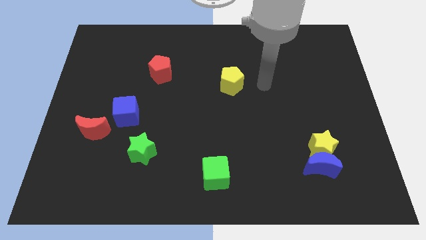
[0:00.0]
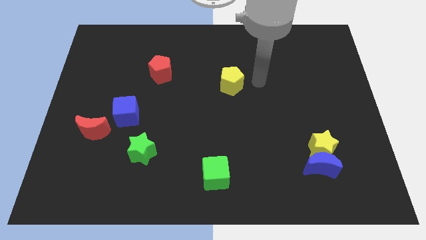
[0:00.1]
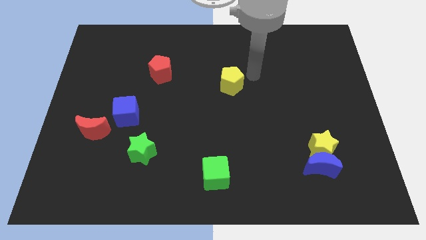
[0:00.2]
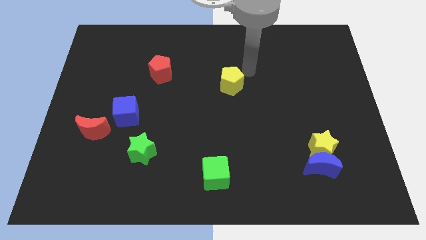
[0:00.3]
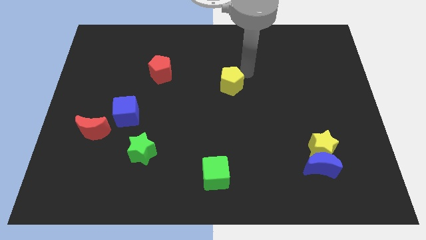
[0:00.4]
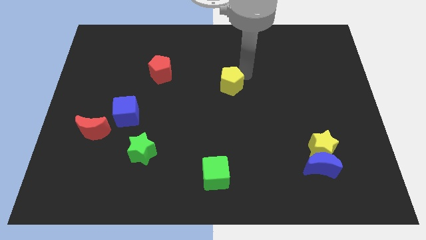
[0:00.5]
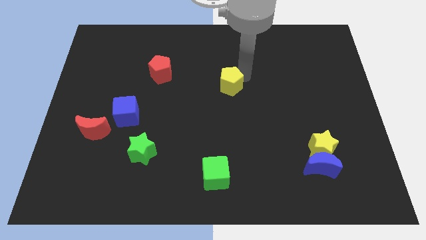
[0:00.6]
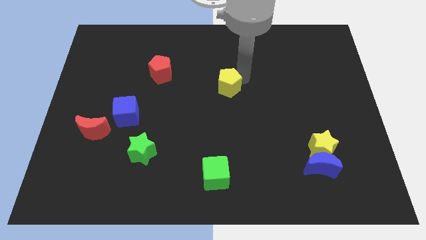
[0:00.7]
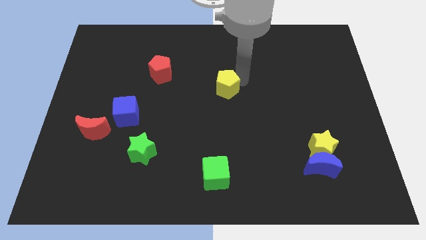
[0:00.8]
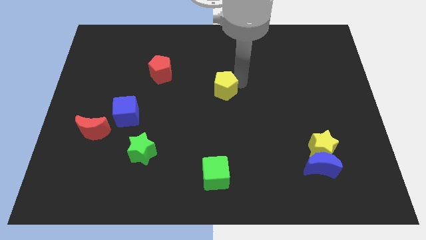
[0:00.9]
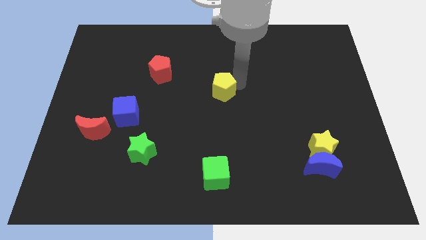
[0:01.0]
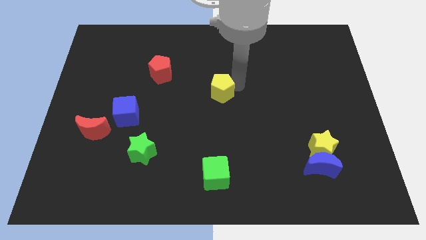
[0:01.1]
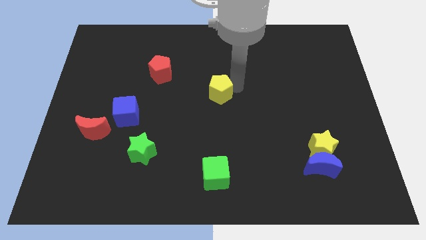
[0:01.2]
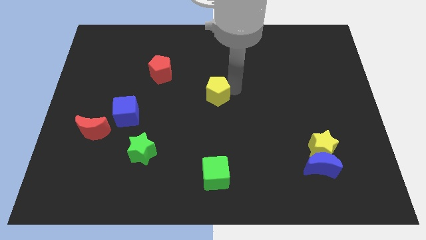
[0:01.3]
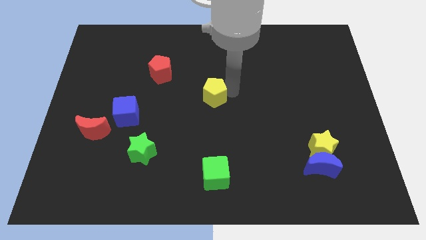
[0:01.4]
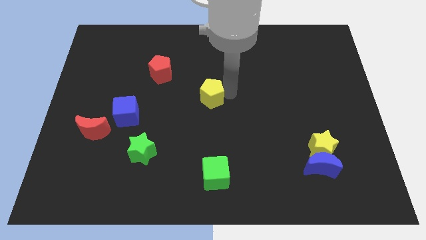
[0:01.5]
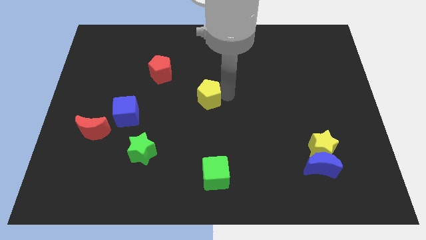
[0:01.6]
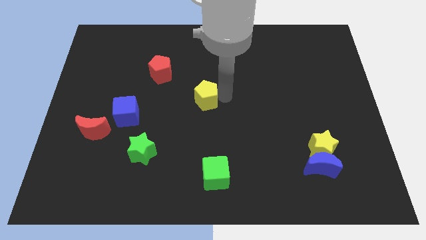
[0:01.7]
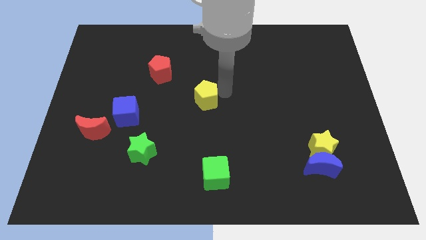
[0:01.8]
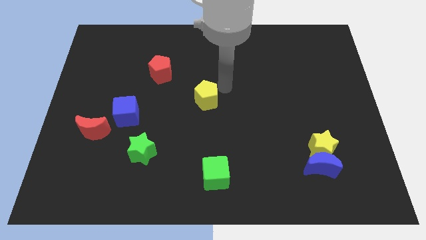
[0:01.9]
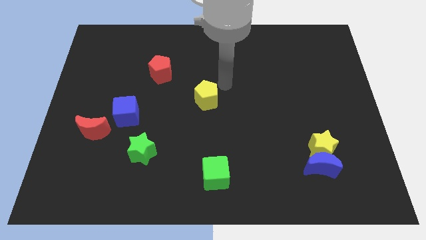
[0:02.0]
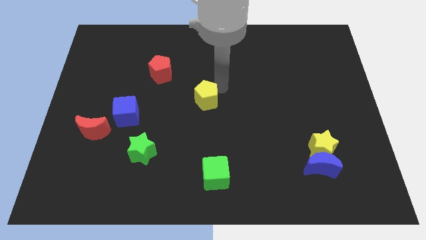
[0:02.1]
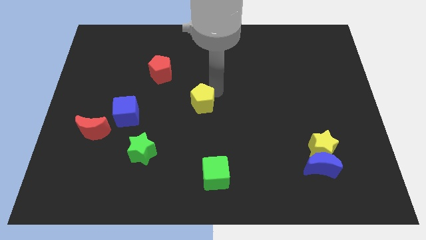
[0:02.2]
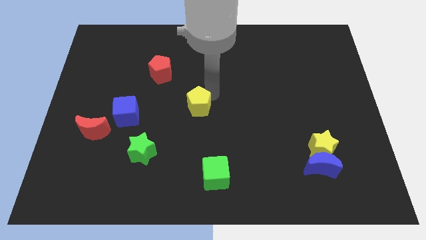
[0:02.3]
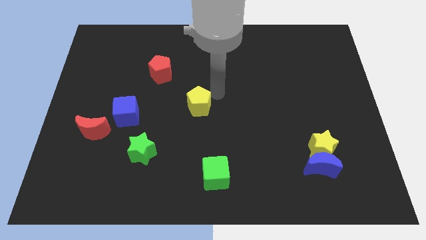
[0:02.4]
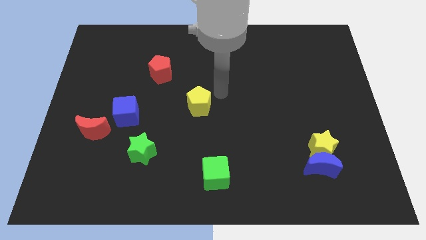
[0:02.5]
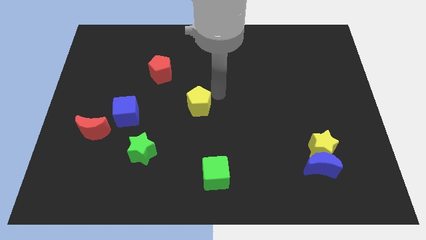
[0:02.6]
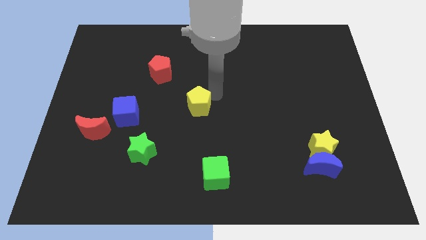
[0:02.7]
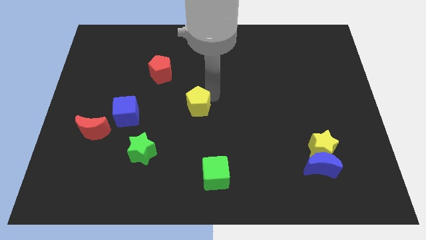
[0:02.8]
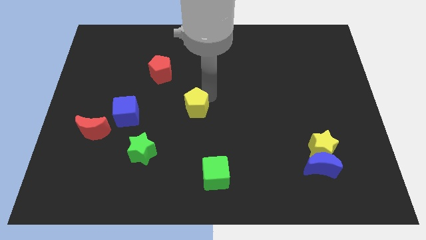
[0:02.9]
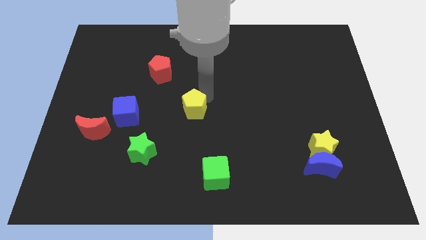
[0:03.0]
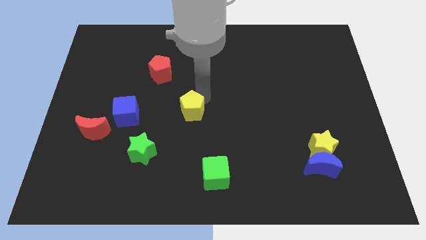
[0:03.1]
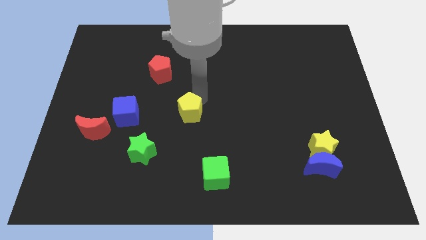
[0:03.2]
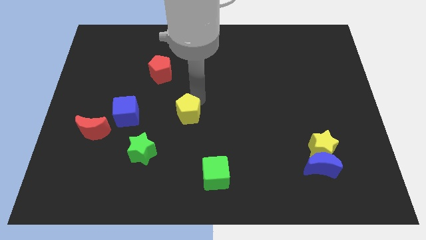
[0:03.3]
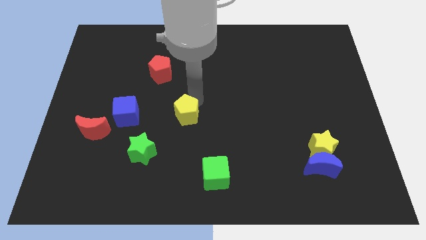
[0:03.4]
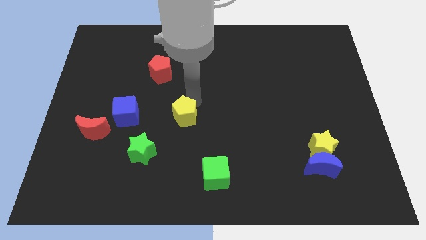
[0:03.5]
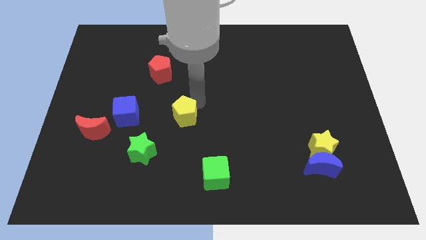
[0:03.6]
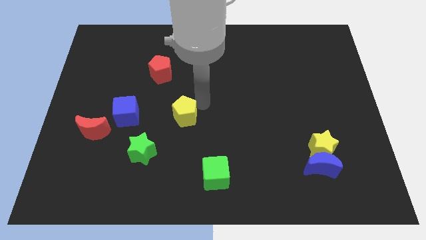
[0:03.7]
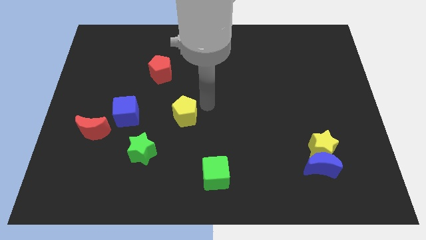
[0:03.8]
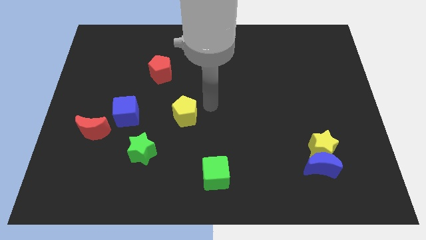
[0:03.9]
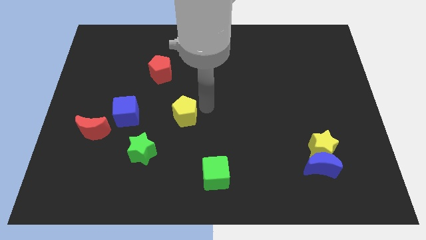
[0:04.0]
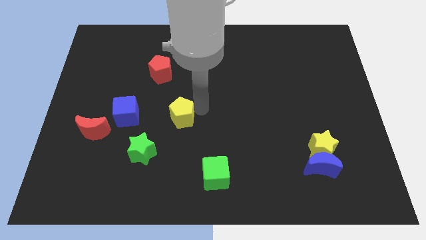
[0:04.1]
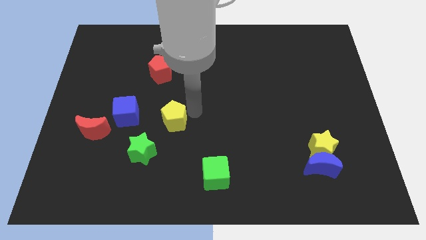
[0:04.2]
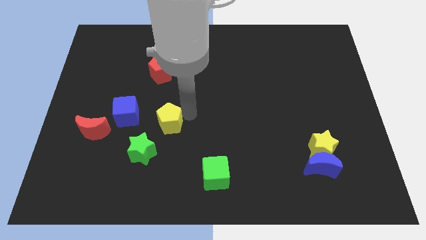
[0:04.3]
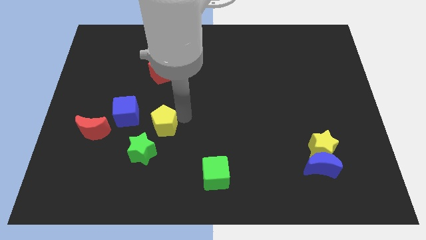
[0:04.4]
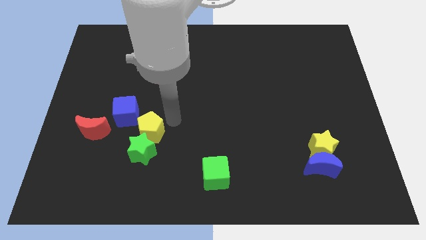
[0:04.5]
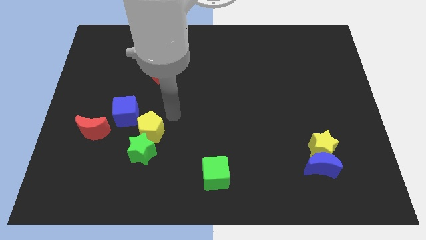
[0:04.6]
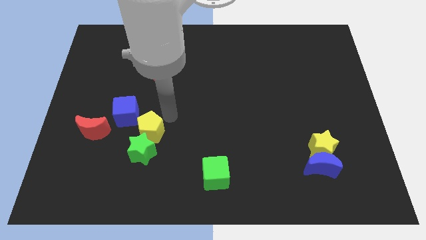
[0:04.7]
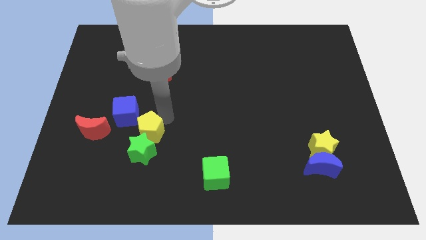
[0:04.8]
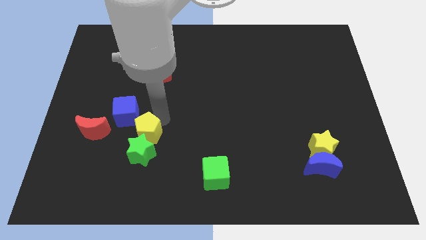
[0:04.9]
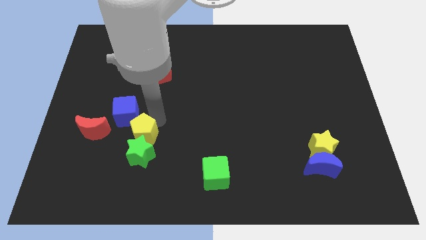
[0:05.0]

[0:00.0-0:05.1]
put the yellow pentagon below the blue cube

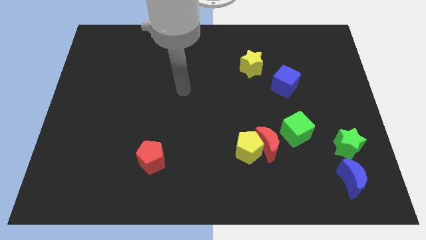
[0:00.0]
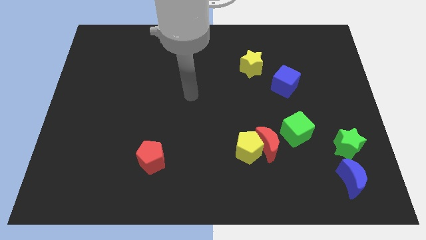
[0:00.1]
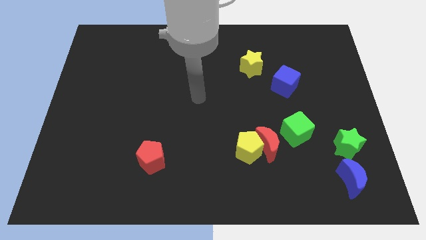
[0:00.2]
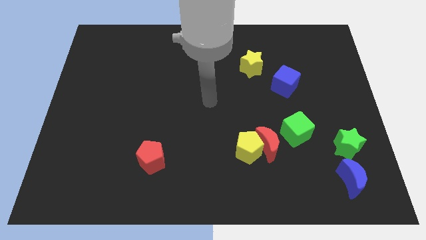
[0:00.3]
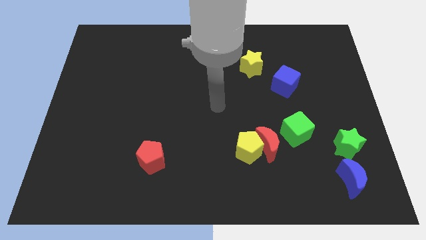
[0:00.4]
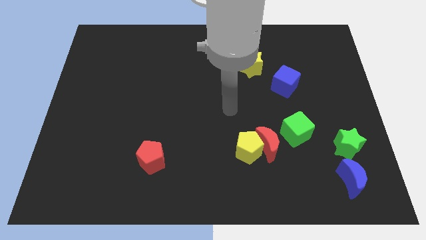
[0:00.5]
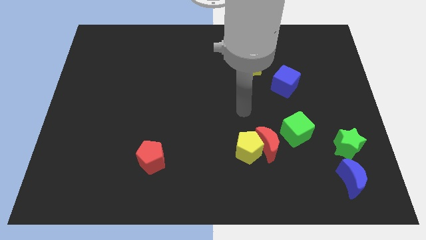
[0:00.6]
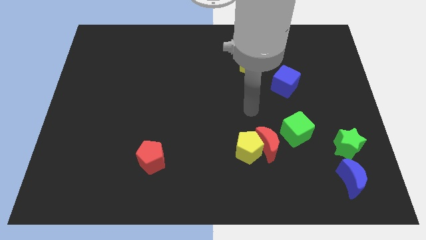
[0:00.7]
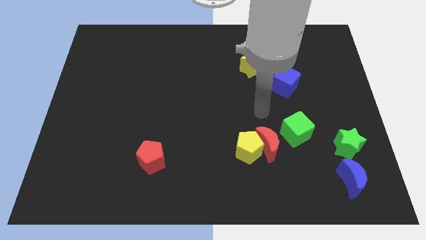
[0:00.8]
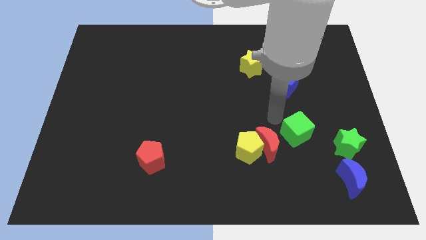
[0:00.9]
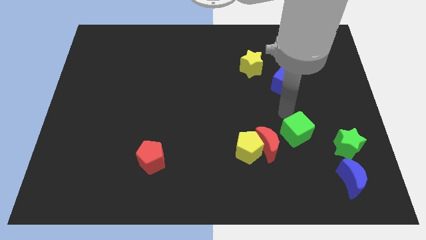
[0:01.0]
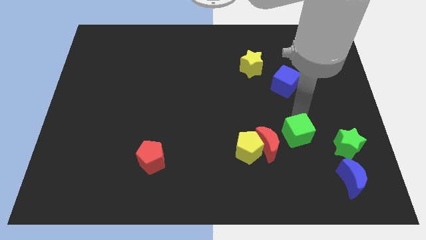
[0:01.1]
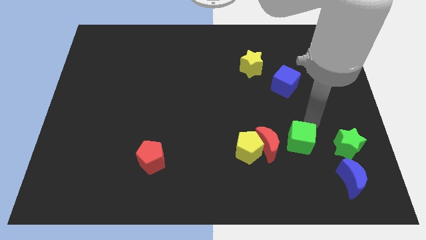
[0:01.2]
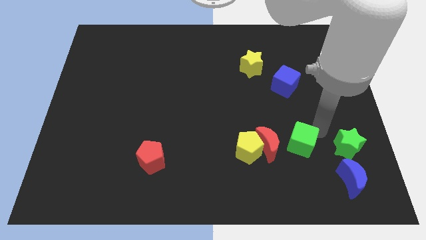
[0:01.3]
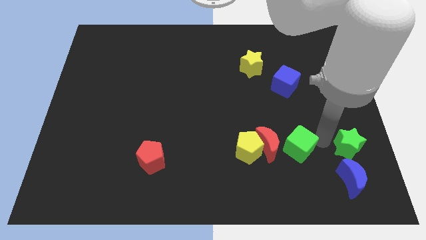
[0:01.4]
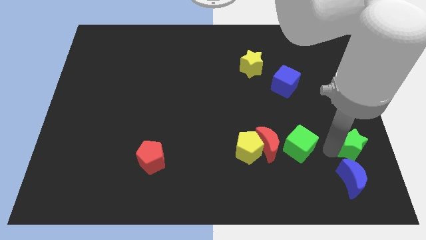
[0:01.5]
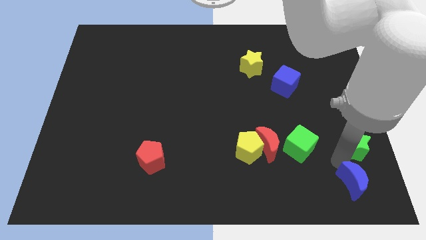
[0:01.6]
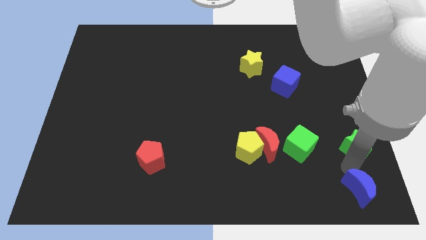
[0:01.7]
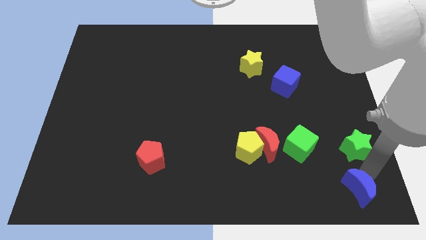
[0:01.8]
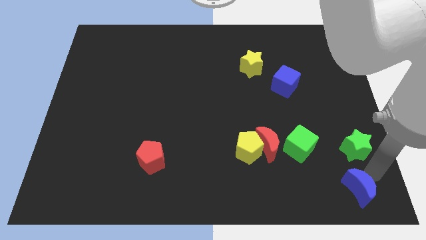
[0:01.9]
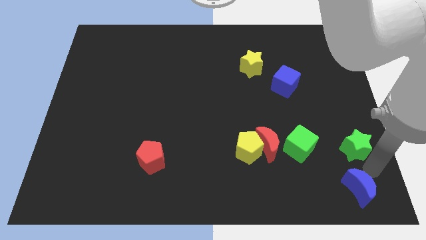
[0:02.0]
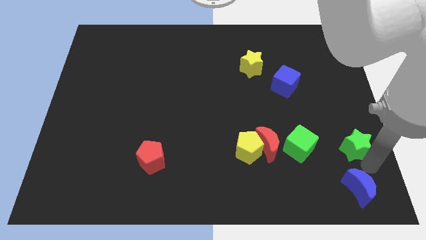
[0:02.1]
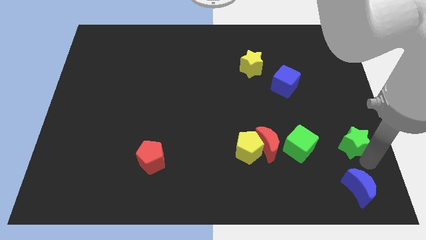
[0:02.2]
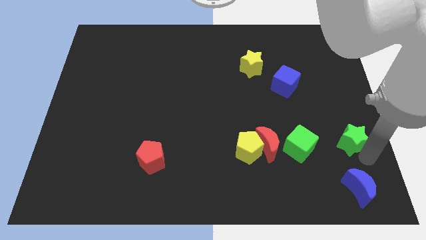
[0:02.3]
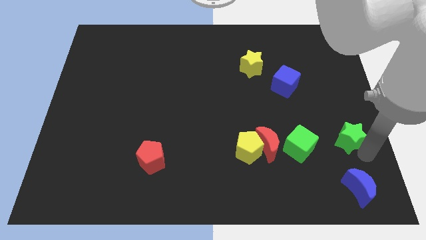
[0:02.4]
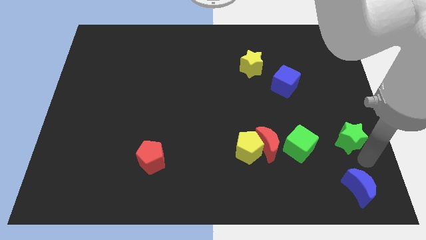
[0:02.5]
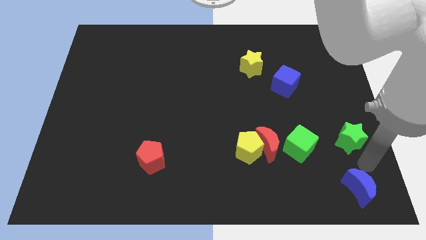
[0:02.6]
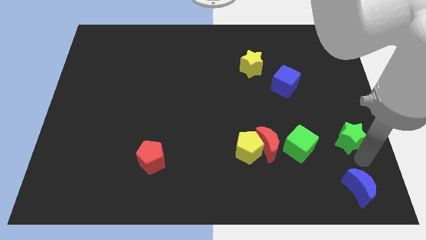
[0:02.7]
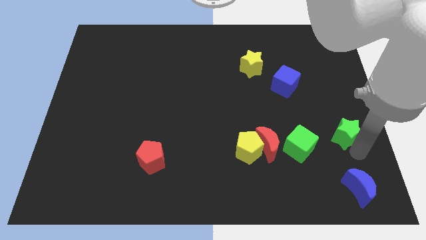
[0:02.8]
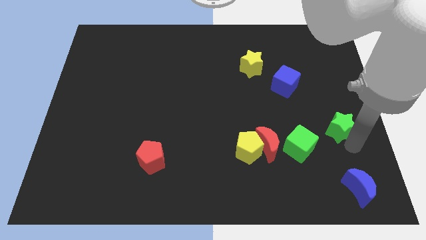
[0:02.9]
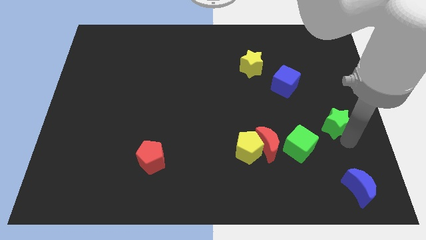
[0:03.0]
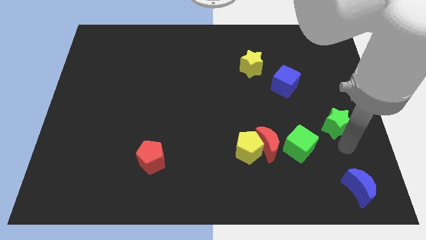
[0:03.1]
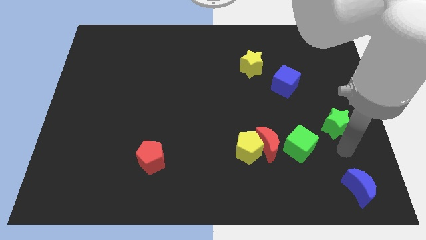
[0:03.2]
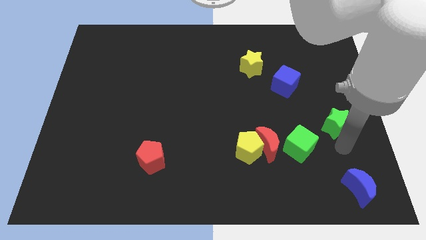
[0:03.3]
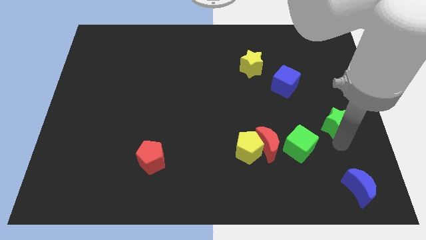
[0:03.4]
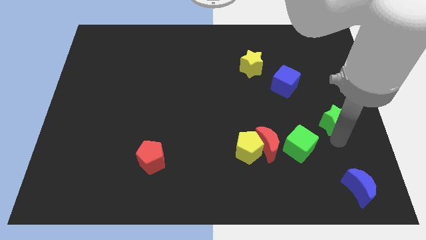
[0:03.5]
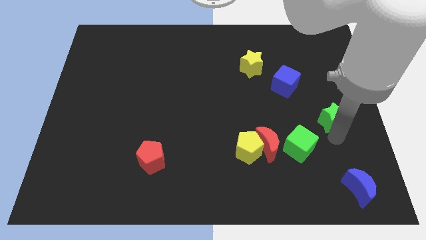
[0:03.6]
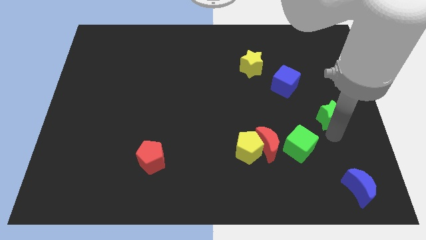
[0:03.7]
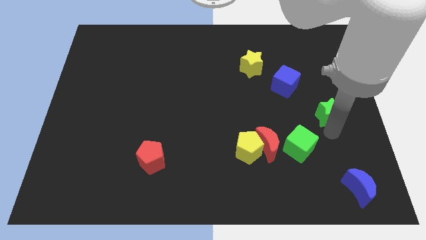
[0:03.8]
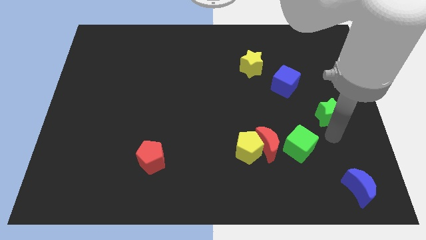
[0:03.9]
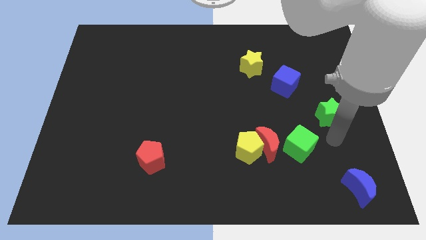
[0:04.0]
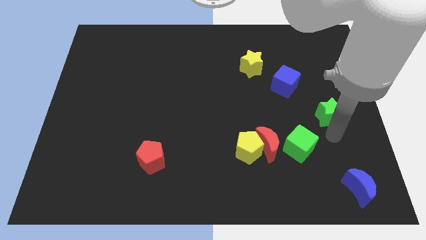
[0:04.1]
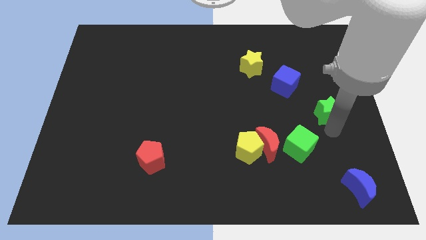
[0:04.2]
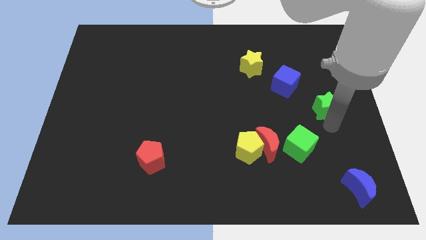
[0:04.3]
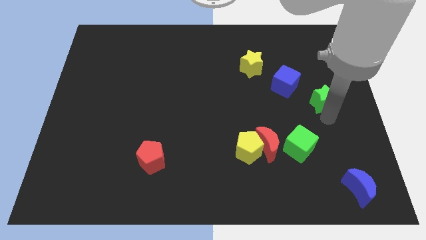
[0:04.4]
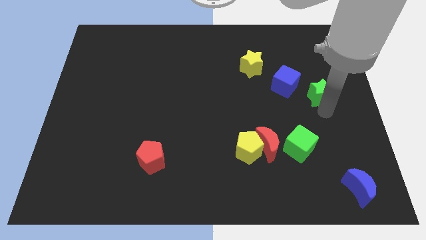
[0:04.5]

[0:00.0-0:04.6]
put the green star right of the blue cube
